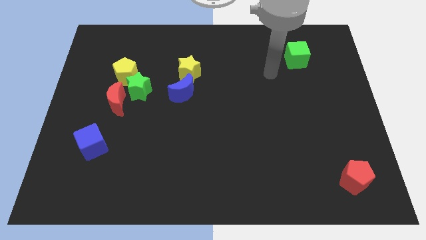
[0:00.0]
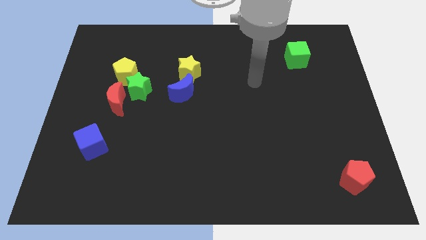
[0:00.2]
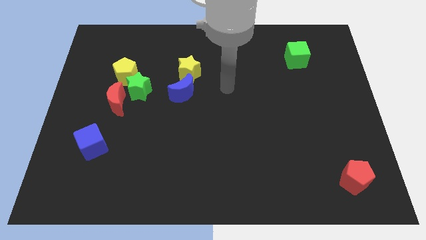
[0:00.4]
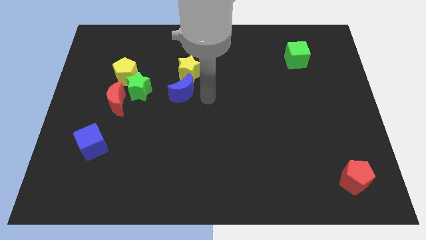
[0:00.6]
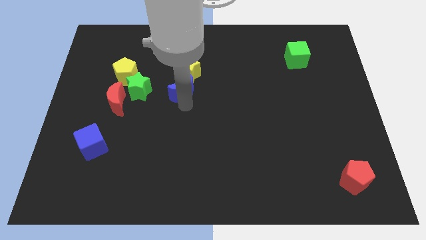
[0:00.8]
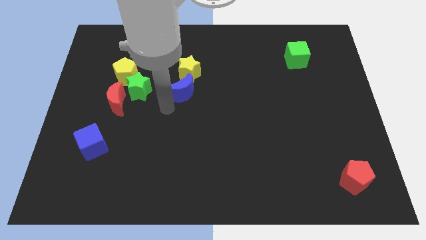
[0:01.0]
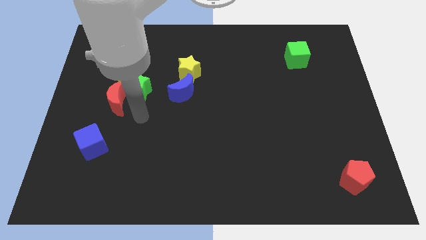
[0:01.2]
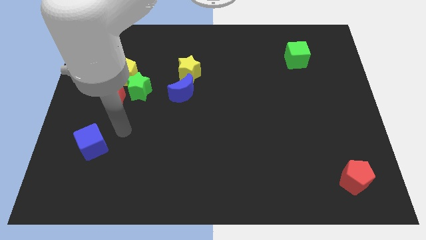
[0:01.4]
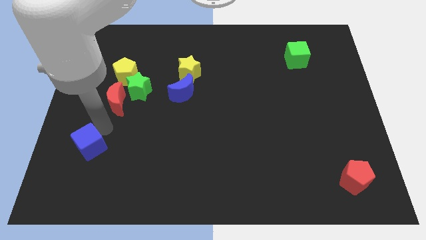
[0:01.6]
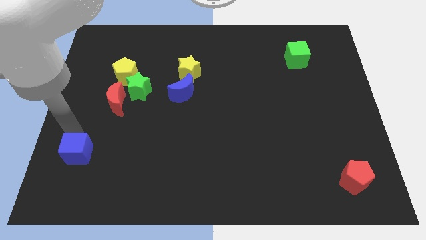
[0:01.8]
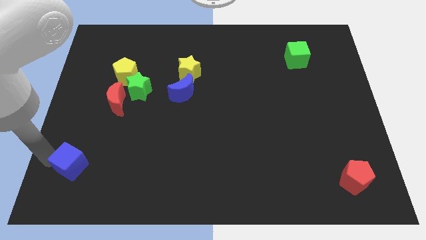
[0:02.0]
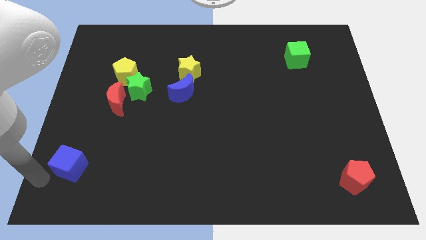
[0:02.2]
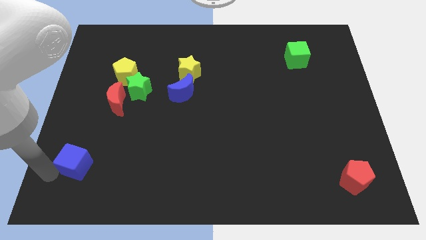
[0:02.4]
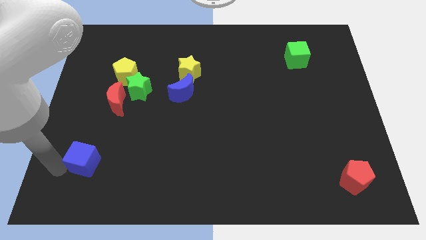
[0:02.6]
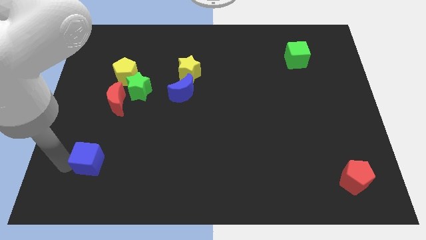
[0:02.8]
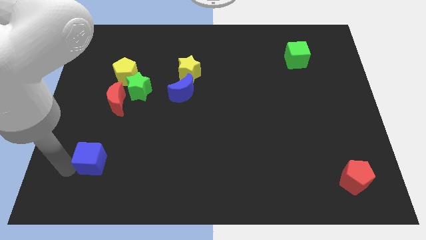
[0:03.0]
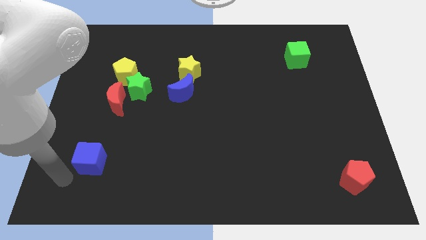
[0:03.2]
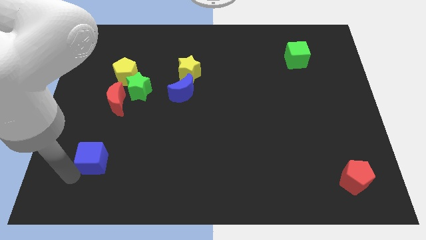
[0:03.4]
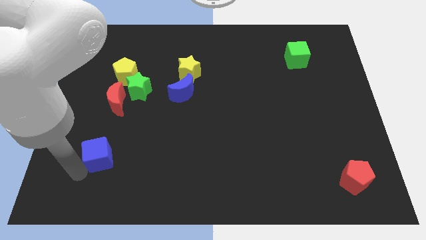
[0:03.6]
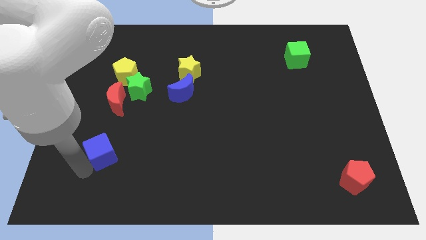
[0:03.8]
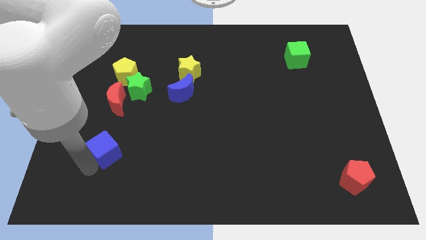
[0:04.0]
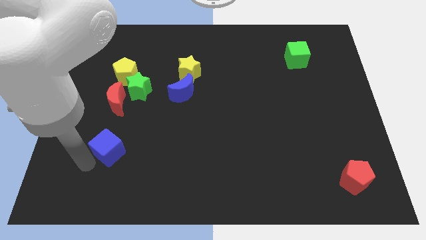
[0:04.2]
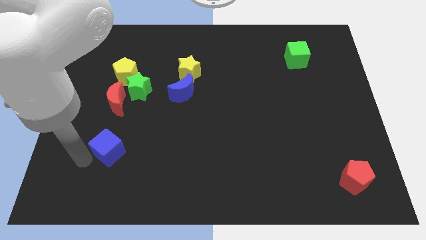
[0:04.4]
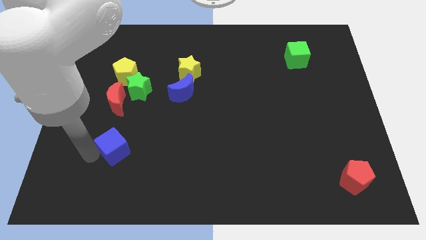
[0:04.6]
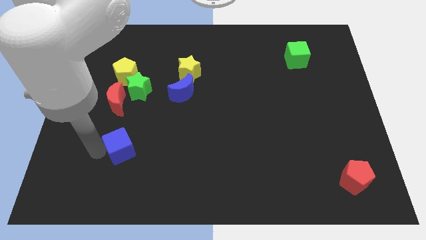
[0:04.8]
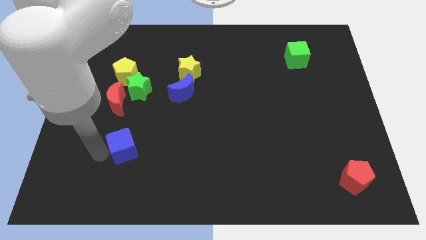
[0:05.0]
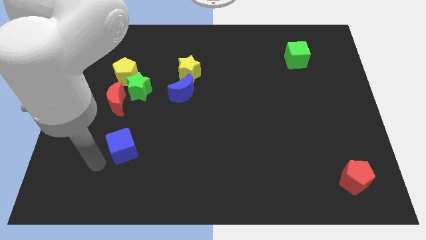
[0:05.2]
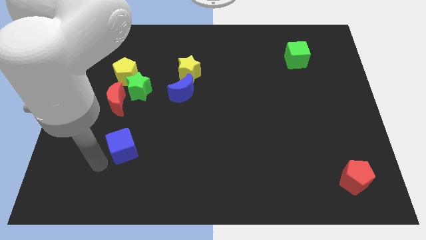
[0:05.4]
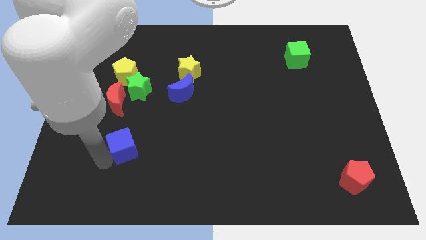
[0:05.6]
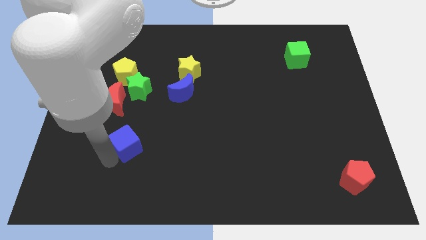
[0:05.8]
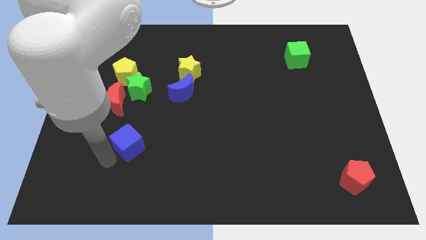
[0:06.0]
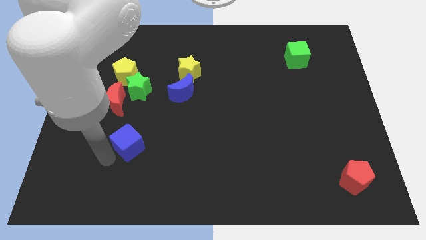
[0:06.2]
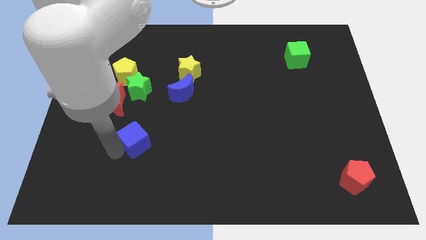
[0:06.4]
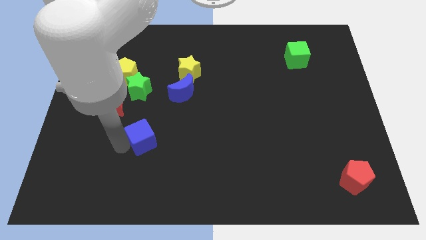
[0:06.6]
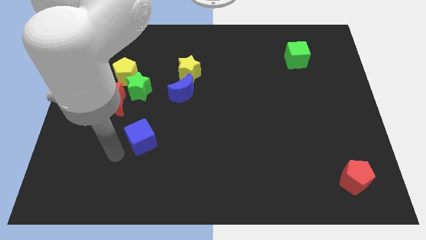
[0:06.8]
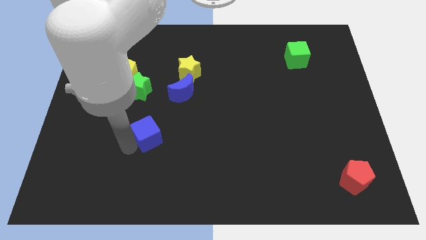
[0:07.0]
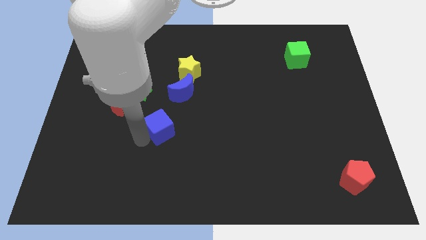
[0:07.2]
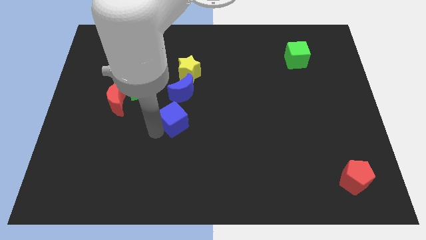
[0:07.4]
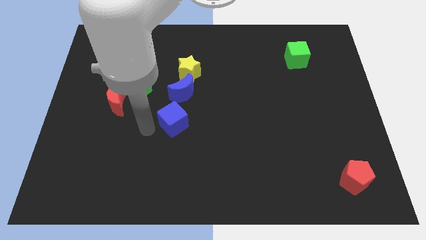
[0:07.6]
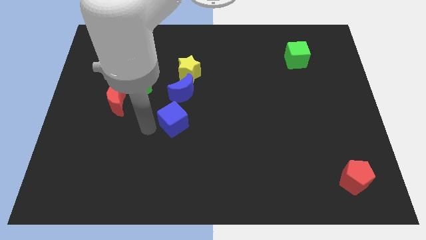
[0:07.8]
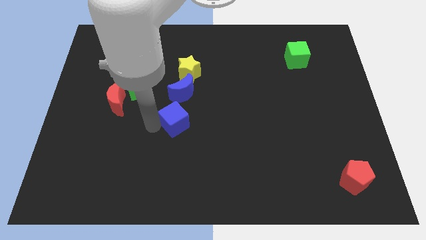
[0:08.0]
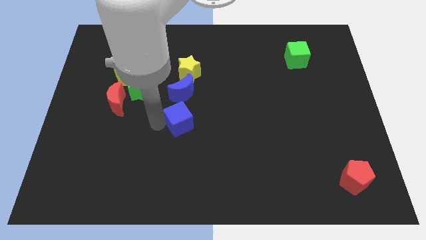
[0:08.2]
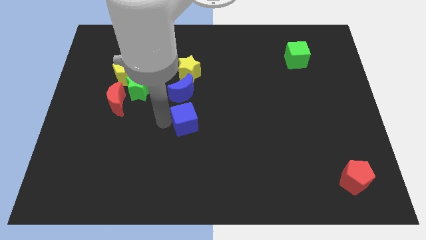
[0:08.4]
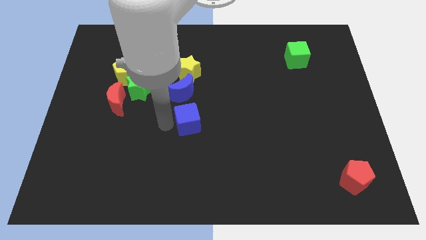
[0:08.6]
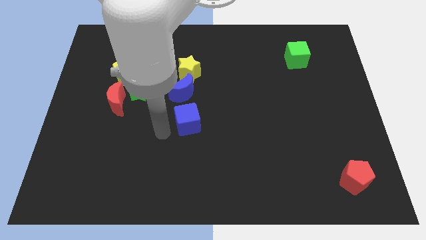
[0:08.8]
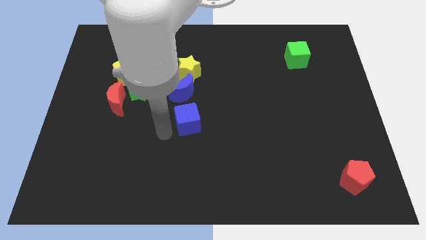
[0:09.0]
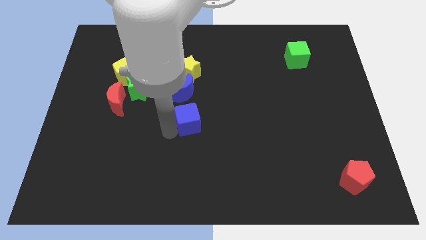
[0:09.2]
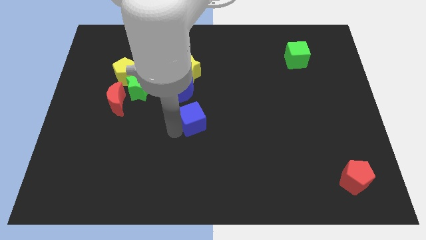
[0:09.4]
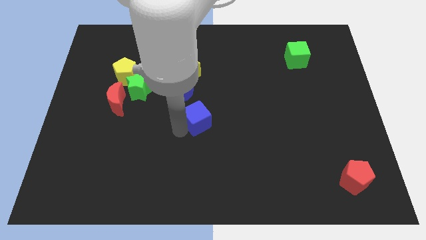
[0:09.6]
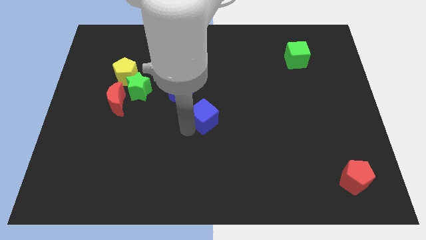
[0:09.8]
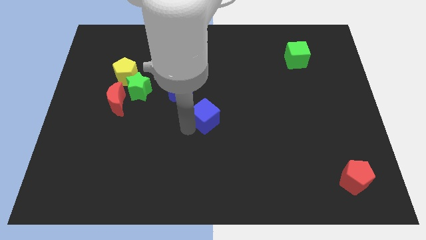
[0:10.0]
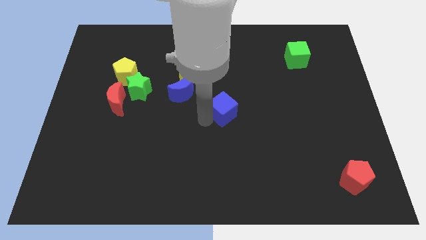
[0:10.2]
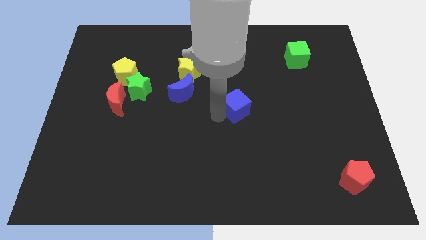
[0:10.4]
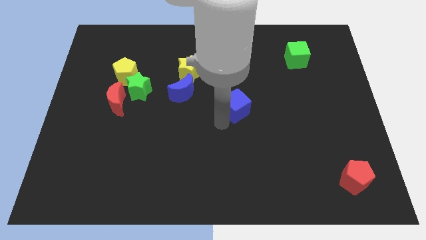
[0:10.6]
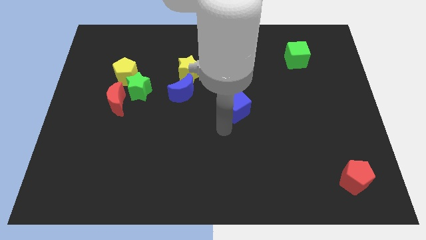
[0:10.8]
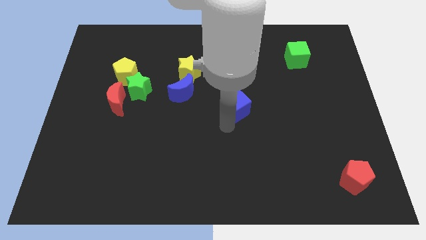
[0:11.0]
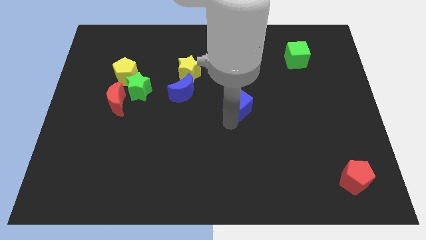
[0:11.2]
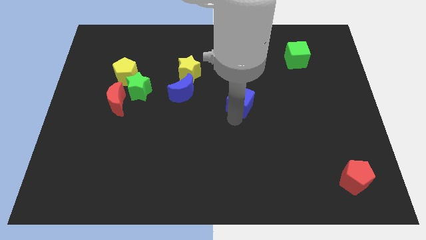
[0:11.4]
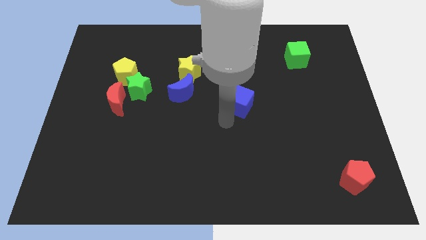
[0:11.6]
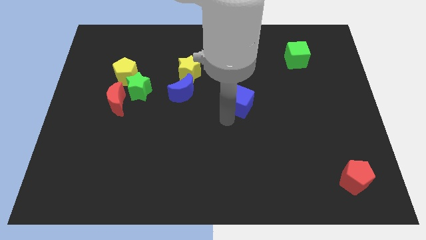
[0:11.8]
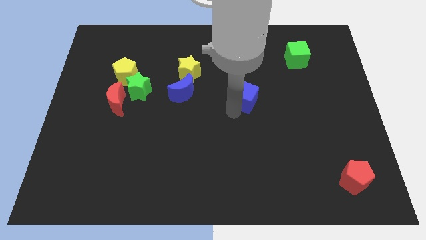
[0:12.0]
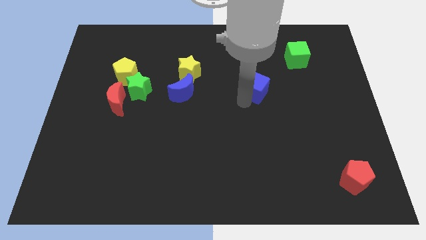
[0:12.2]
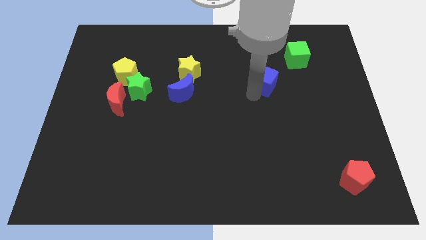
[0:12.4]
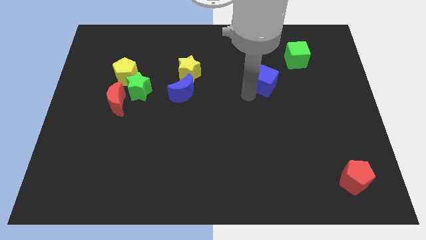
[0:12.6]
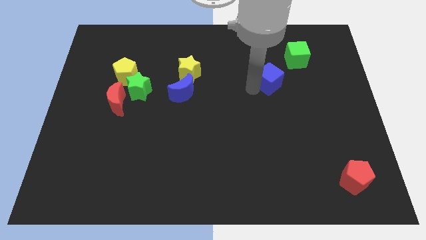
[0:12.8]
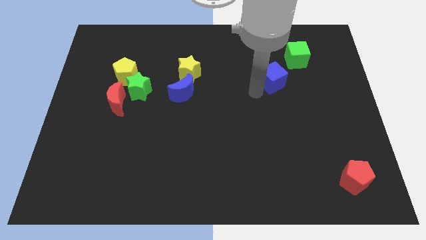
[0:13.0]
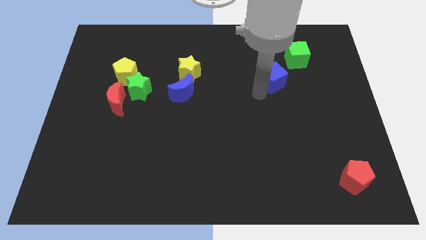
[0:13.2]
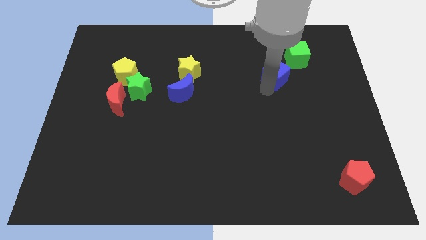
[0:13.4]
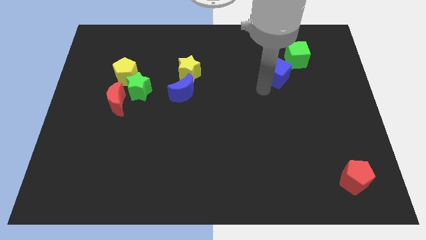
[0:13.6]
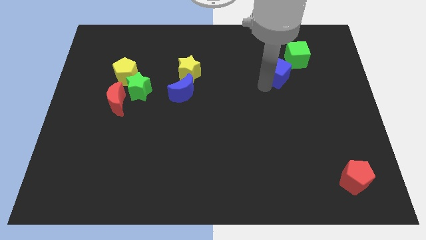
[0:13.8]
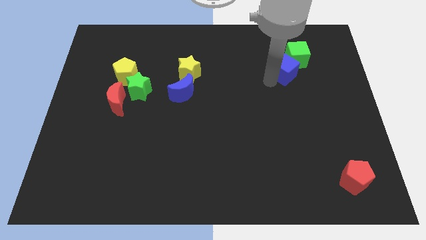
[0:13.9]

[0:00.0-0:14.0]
slide the blue cube to the green cube
